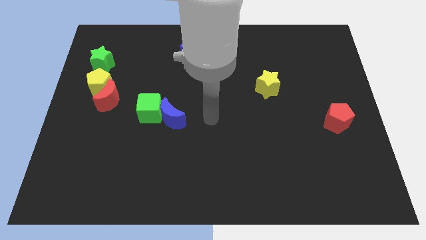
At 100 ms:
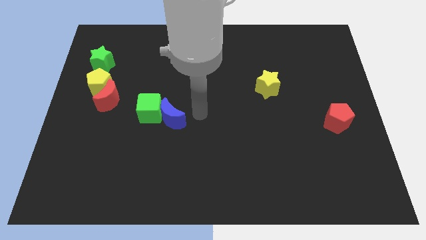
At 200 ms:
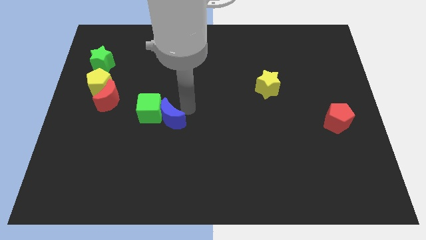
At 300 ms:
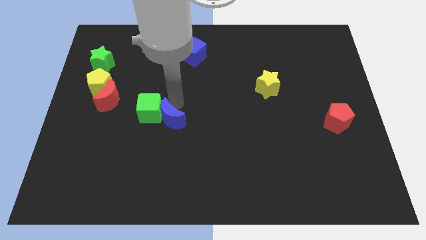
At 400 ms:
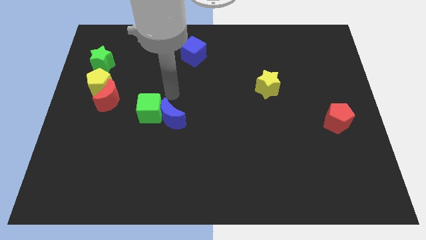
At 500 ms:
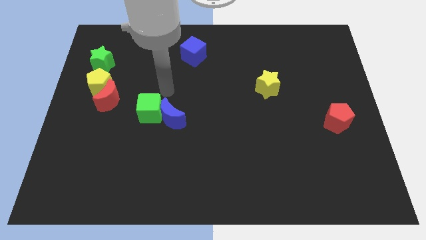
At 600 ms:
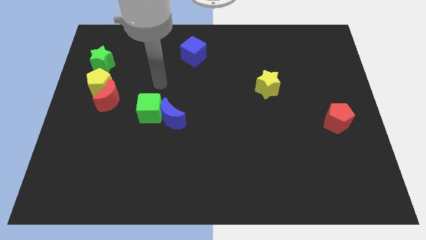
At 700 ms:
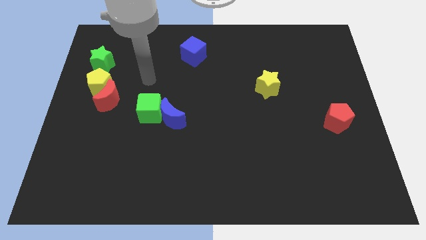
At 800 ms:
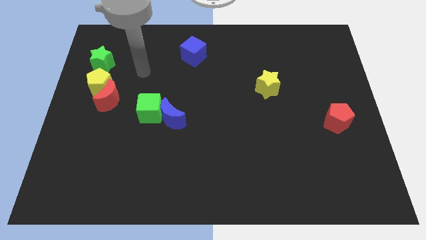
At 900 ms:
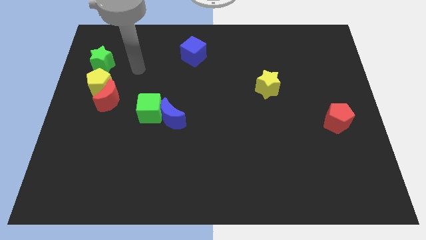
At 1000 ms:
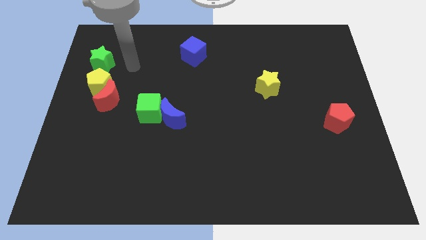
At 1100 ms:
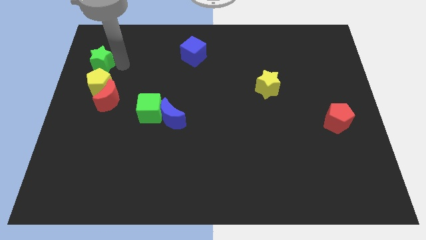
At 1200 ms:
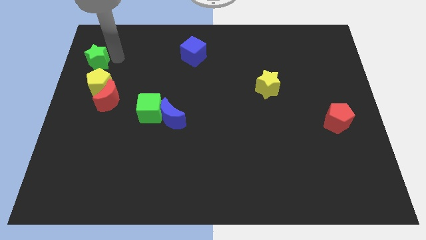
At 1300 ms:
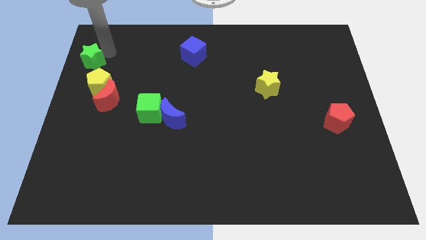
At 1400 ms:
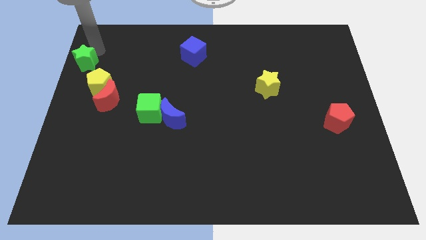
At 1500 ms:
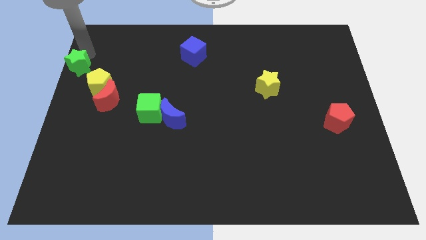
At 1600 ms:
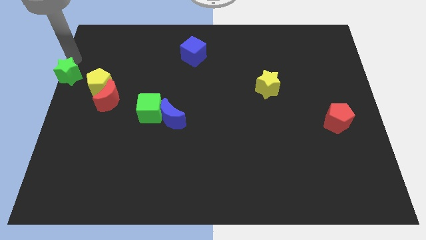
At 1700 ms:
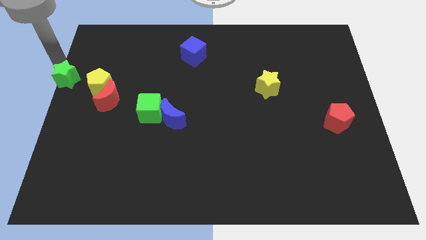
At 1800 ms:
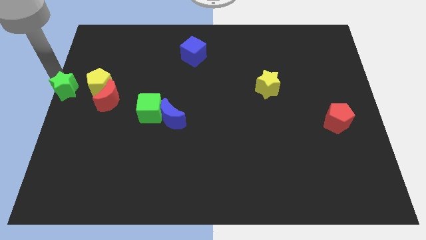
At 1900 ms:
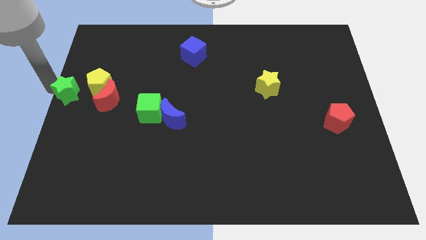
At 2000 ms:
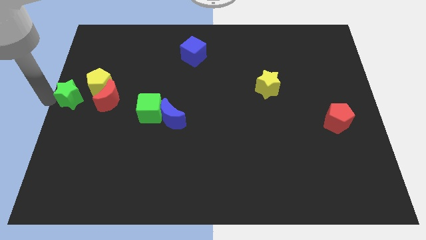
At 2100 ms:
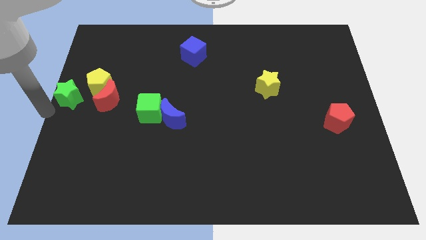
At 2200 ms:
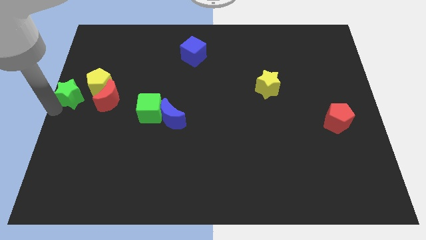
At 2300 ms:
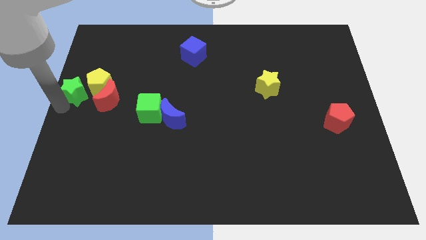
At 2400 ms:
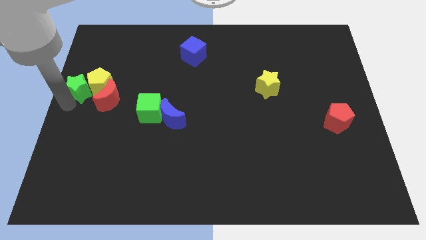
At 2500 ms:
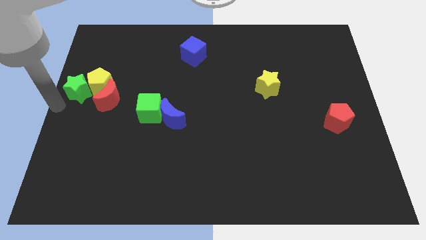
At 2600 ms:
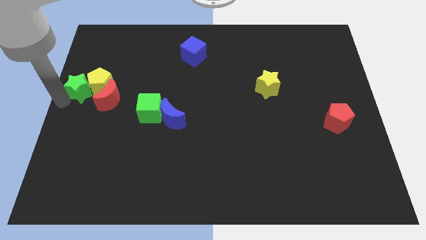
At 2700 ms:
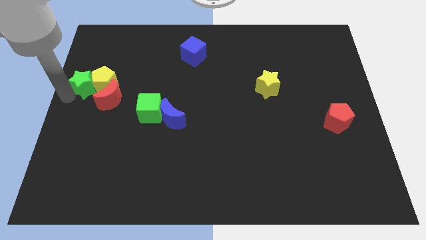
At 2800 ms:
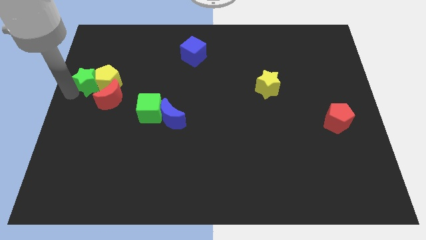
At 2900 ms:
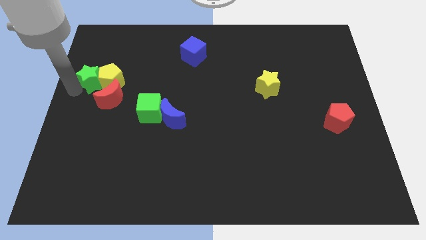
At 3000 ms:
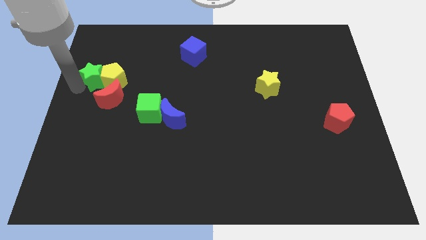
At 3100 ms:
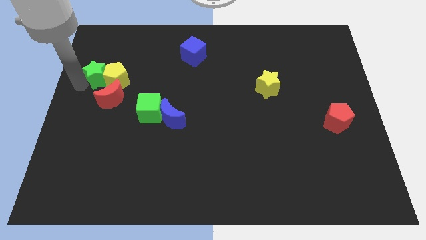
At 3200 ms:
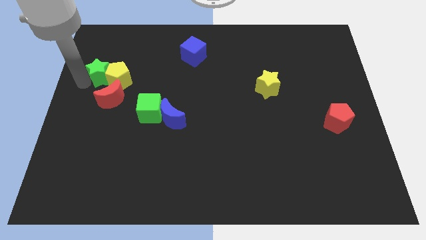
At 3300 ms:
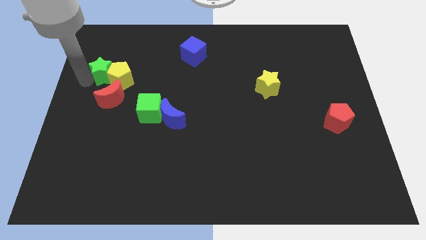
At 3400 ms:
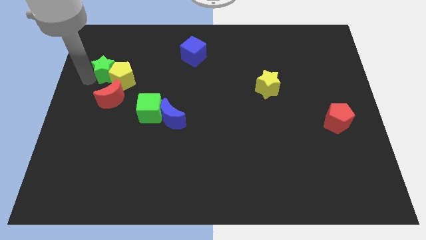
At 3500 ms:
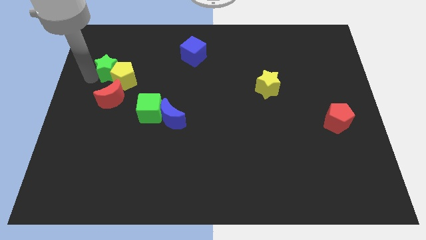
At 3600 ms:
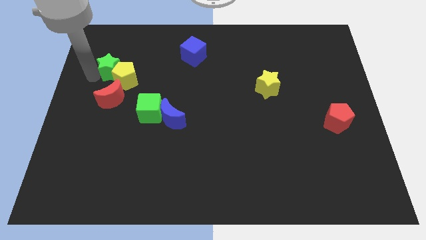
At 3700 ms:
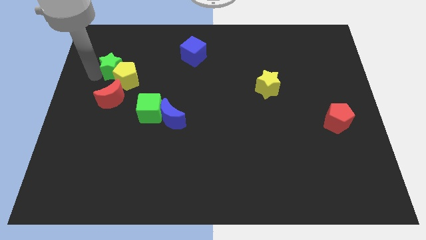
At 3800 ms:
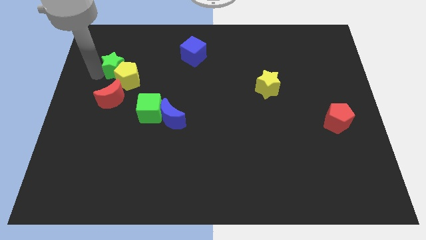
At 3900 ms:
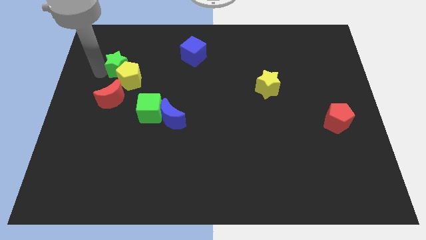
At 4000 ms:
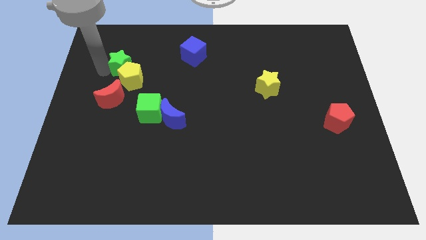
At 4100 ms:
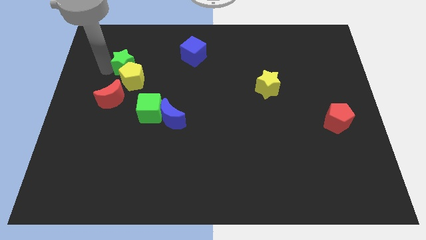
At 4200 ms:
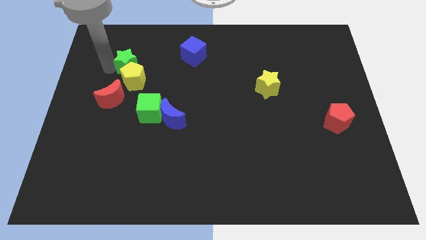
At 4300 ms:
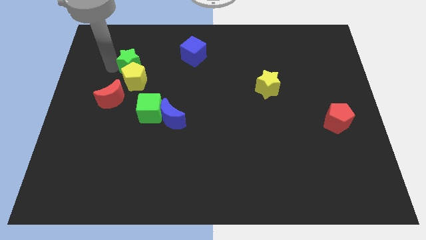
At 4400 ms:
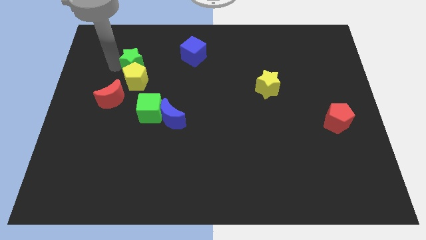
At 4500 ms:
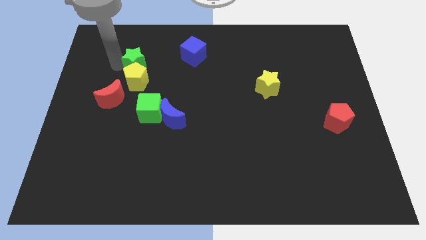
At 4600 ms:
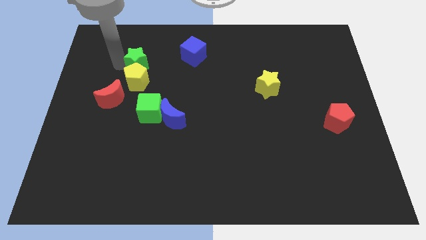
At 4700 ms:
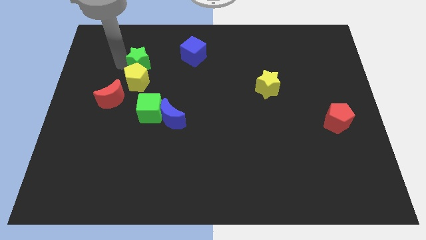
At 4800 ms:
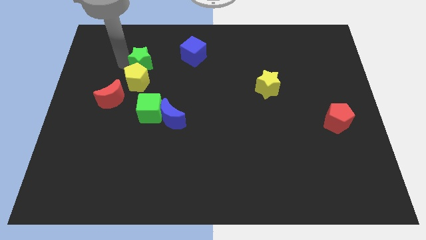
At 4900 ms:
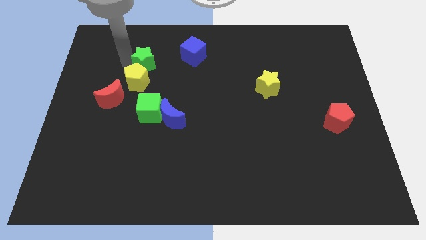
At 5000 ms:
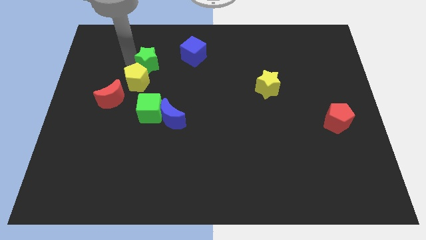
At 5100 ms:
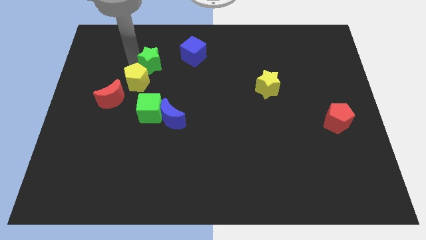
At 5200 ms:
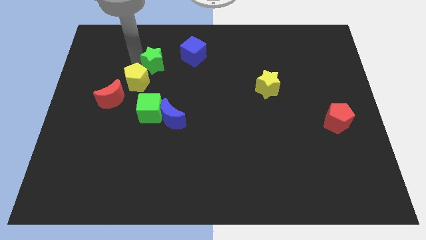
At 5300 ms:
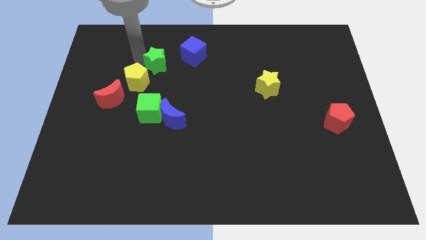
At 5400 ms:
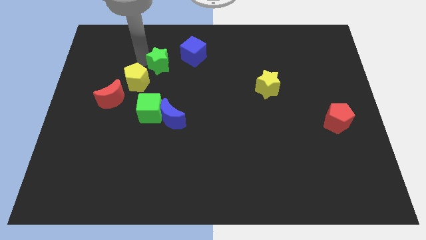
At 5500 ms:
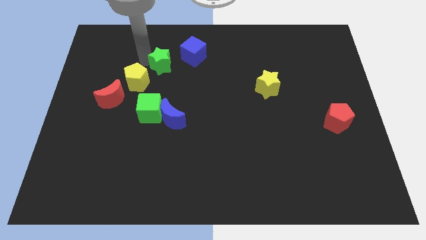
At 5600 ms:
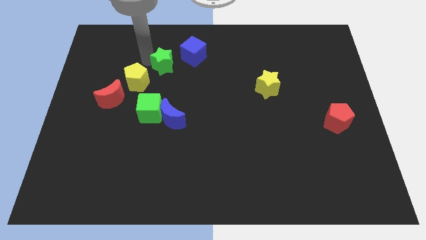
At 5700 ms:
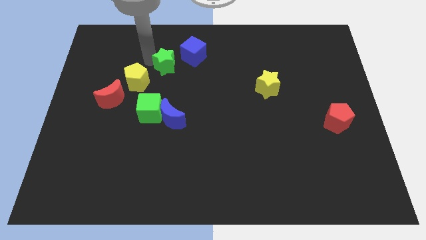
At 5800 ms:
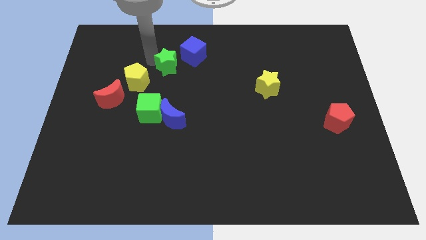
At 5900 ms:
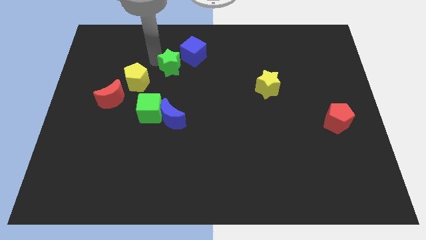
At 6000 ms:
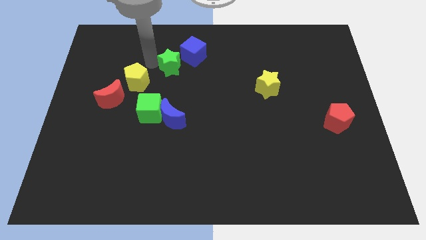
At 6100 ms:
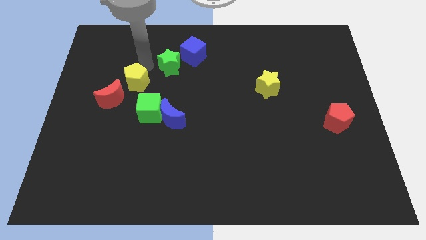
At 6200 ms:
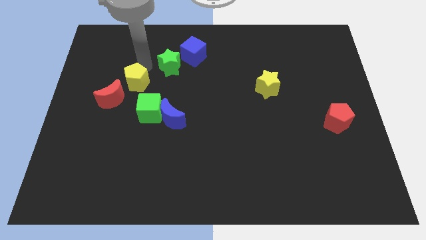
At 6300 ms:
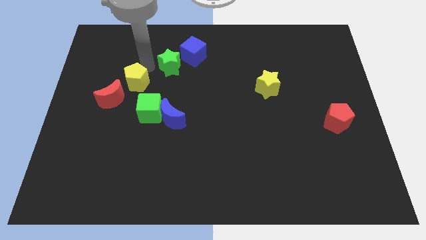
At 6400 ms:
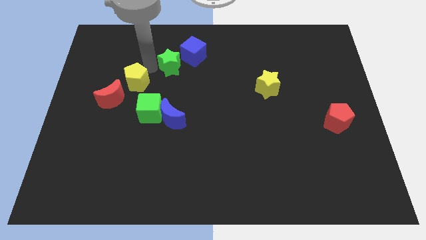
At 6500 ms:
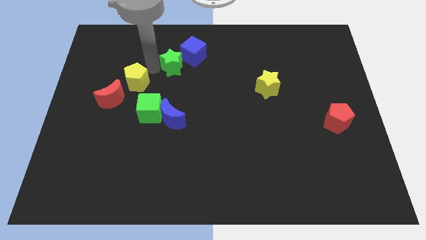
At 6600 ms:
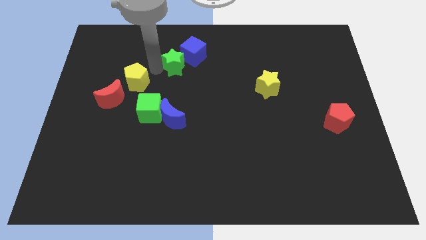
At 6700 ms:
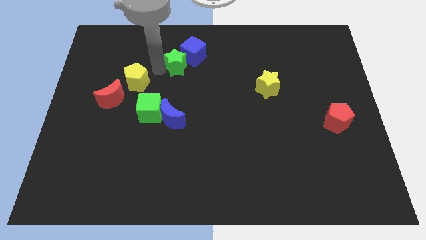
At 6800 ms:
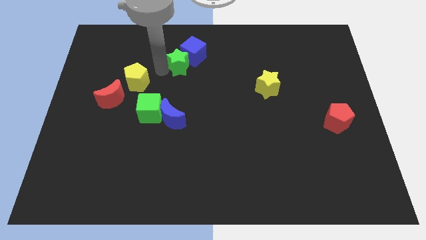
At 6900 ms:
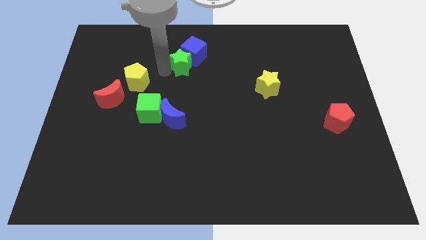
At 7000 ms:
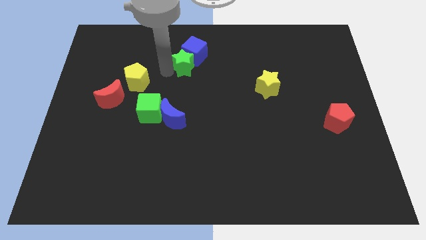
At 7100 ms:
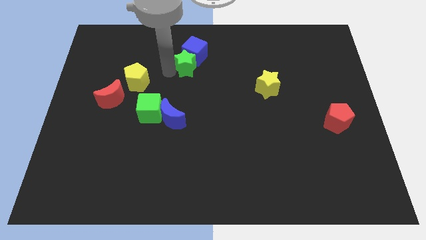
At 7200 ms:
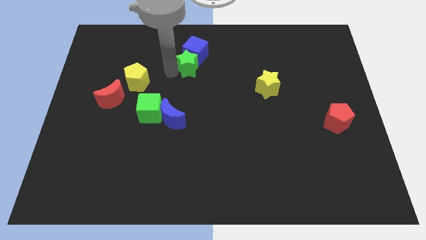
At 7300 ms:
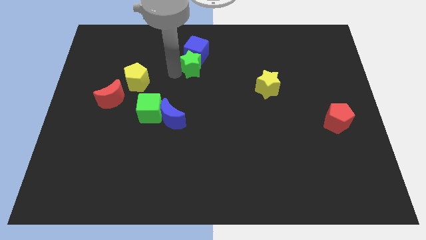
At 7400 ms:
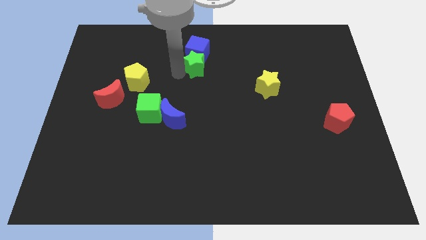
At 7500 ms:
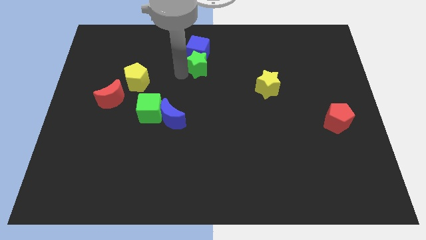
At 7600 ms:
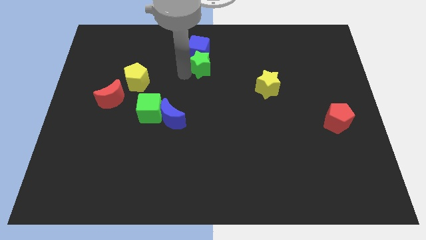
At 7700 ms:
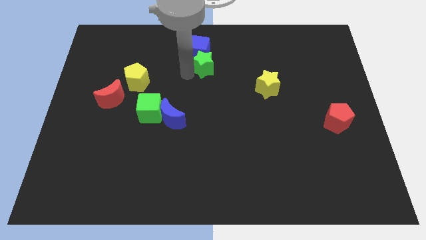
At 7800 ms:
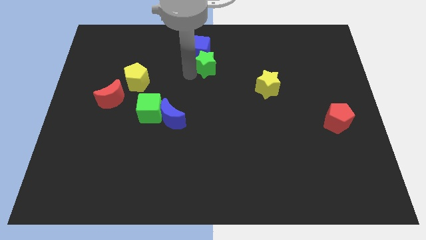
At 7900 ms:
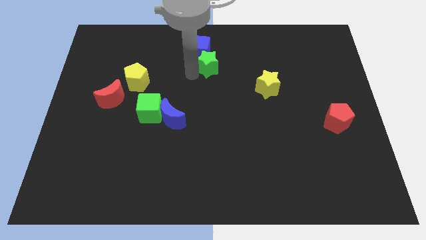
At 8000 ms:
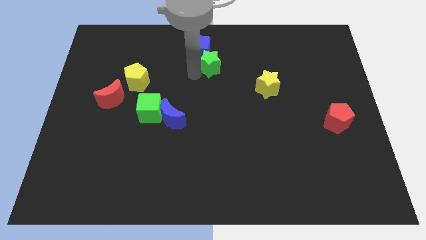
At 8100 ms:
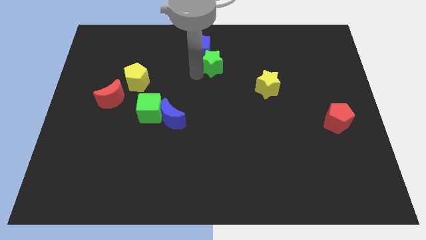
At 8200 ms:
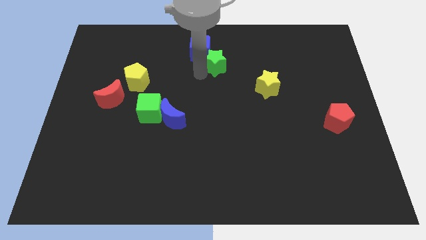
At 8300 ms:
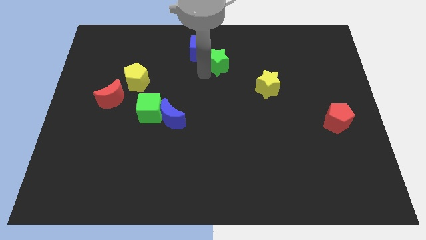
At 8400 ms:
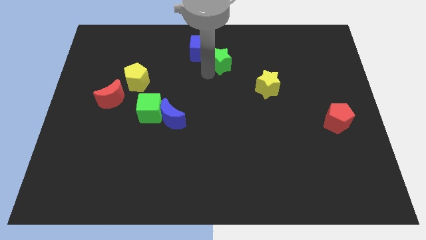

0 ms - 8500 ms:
push the green star just right of the blue cube
